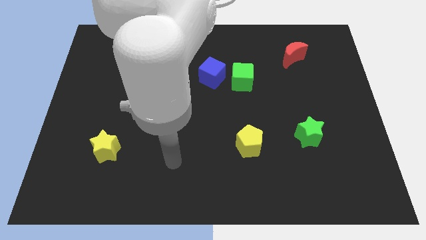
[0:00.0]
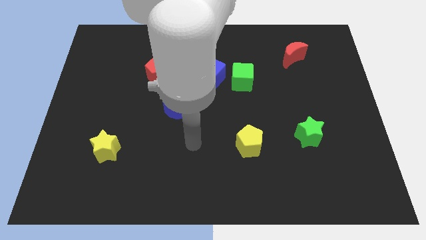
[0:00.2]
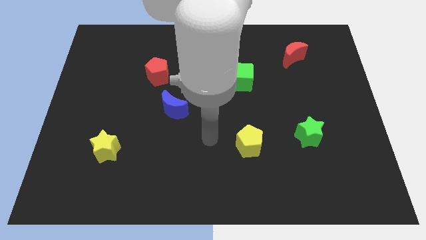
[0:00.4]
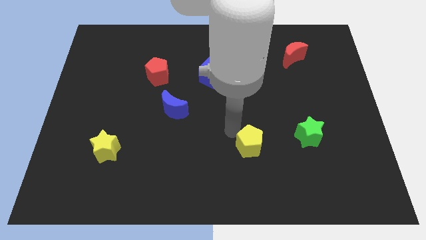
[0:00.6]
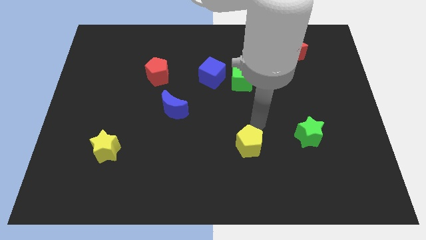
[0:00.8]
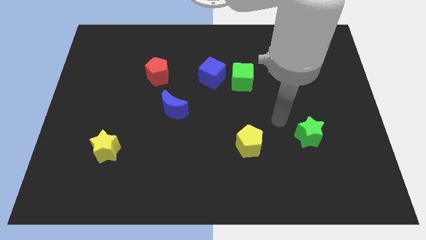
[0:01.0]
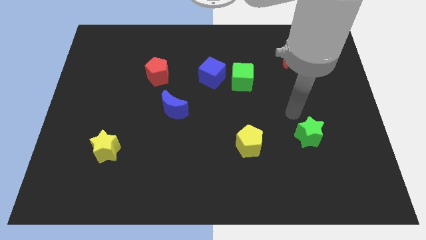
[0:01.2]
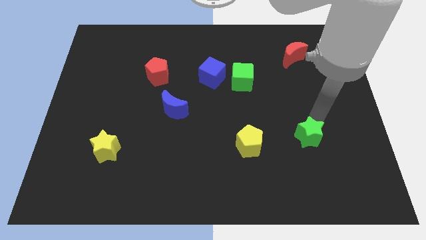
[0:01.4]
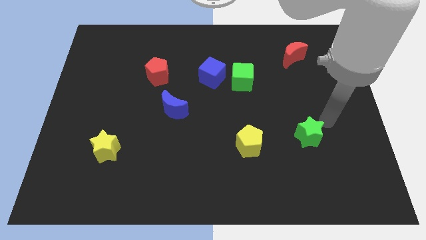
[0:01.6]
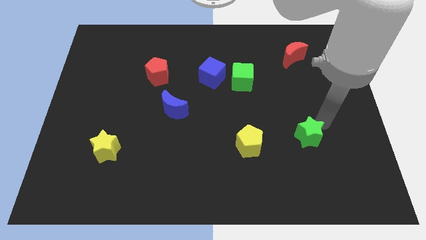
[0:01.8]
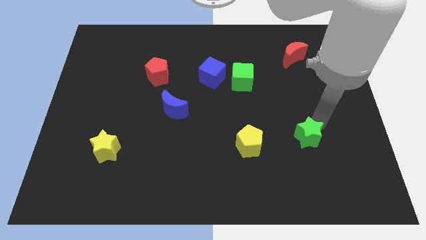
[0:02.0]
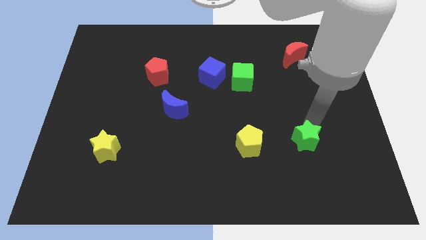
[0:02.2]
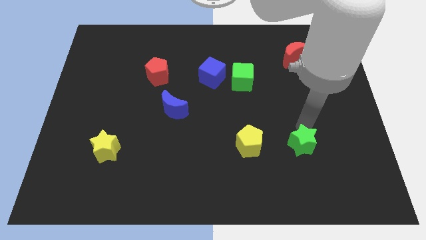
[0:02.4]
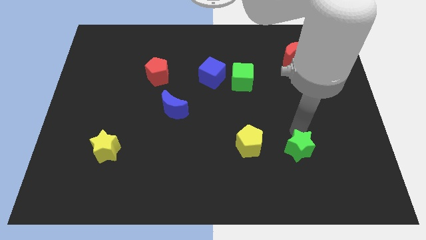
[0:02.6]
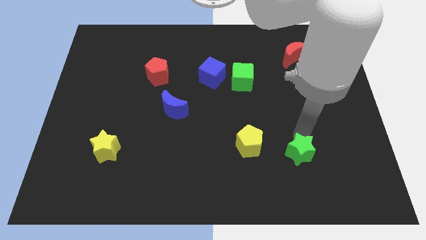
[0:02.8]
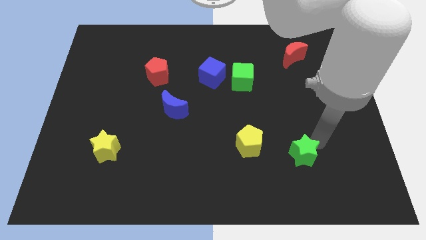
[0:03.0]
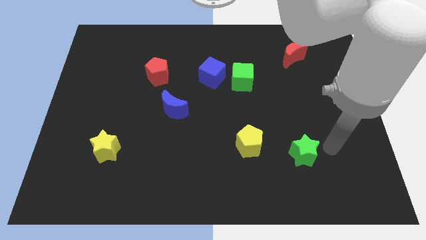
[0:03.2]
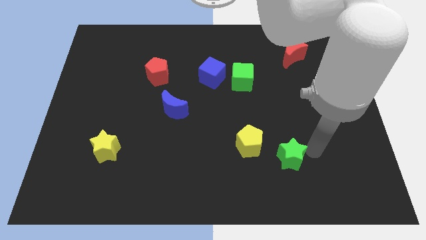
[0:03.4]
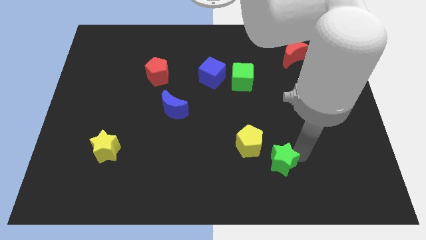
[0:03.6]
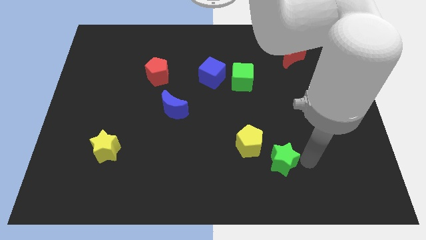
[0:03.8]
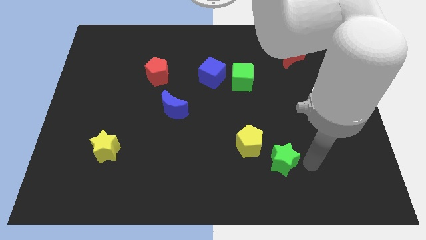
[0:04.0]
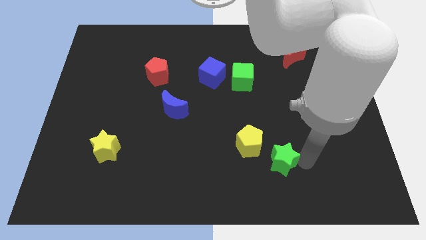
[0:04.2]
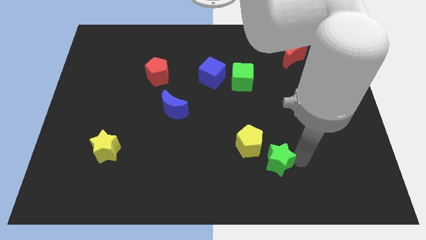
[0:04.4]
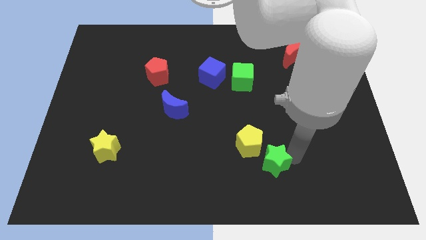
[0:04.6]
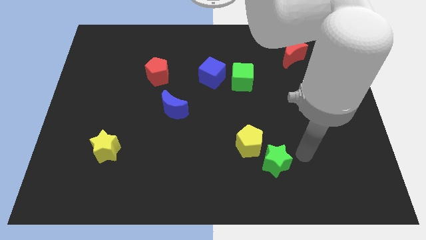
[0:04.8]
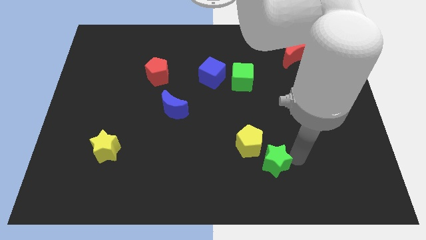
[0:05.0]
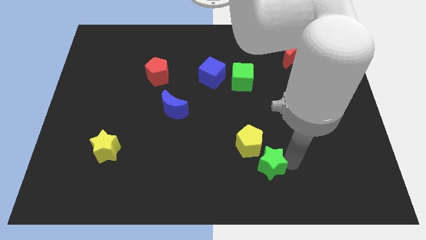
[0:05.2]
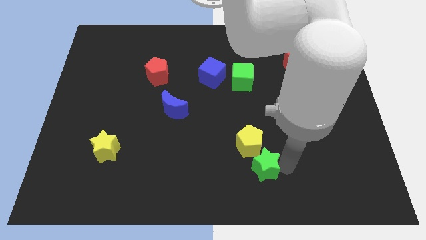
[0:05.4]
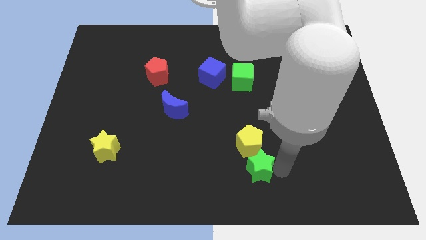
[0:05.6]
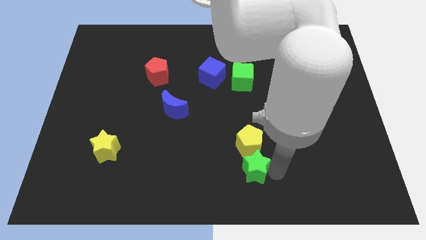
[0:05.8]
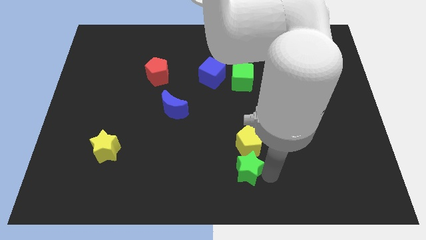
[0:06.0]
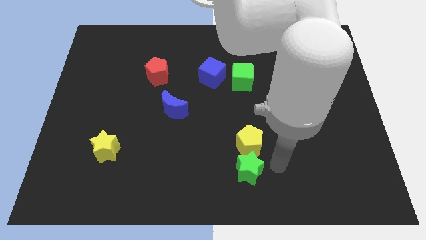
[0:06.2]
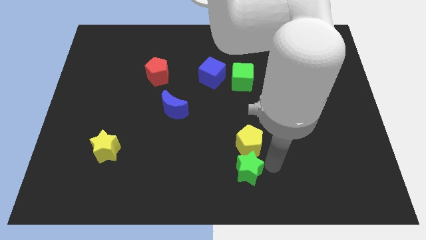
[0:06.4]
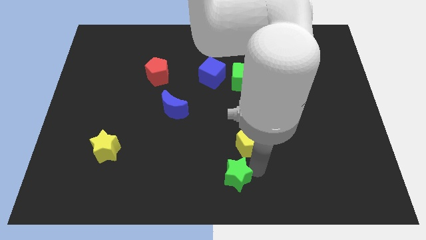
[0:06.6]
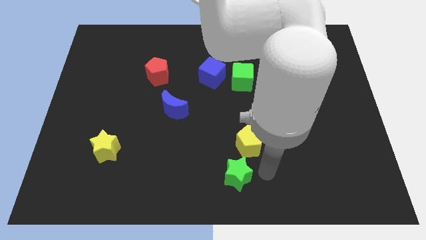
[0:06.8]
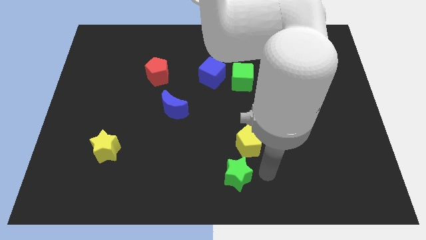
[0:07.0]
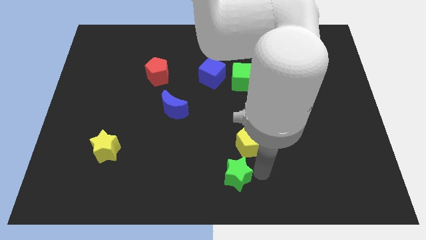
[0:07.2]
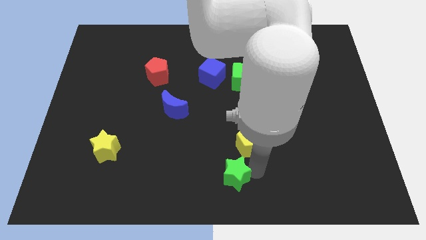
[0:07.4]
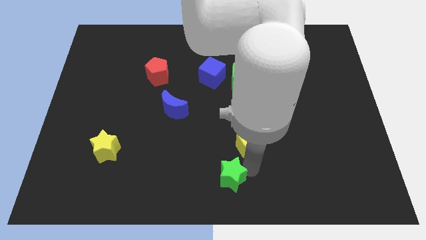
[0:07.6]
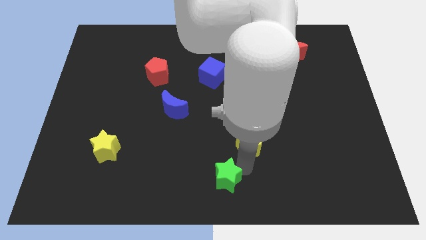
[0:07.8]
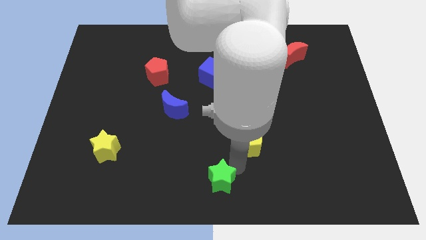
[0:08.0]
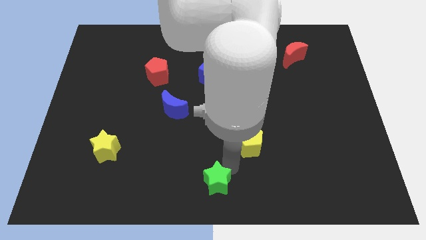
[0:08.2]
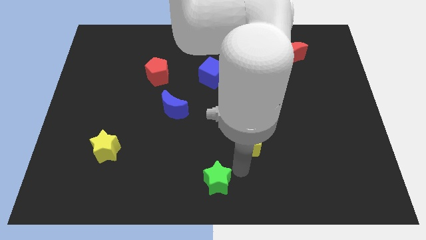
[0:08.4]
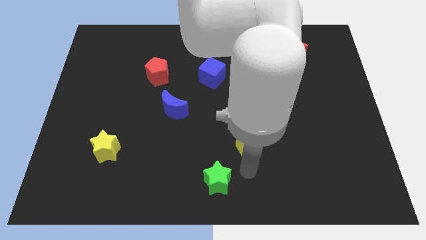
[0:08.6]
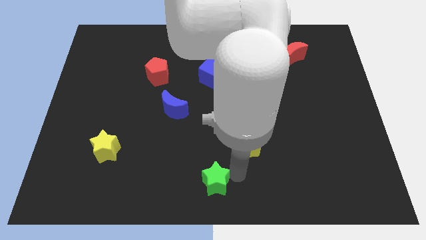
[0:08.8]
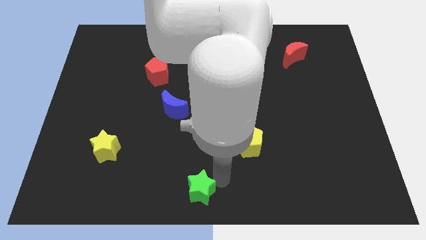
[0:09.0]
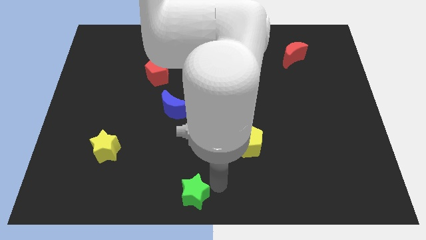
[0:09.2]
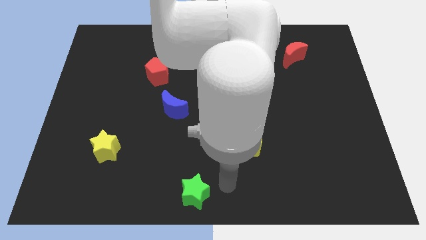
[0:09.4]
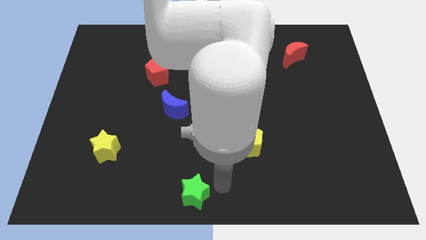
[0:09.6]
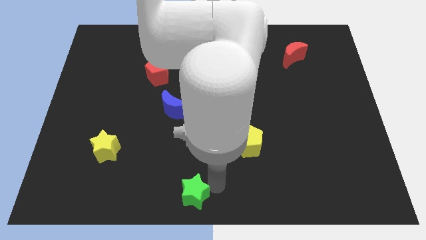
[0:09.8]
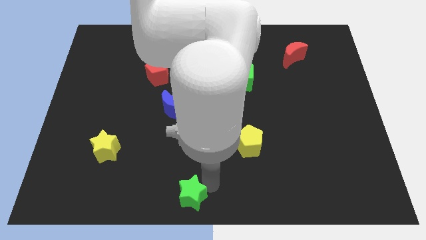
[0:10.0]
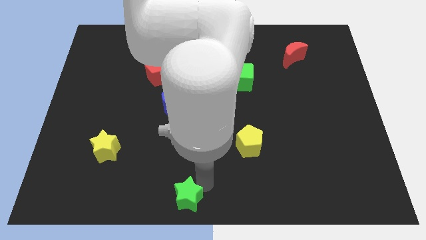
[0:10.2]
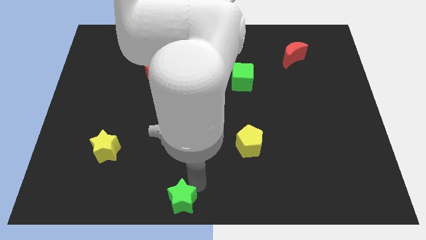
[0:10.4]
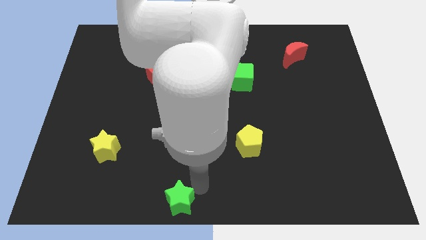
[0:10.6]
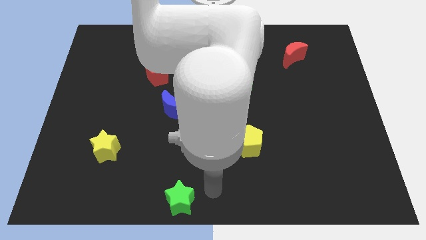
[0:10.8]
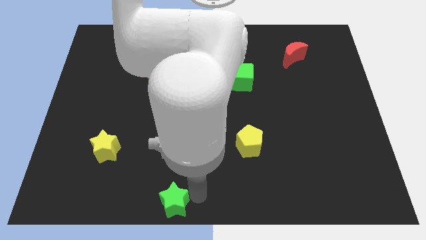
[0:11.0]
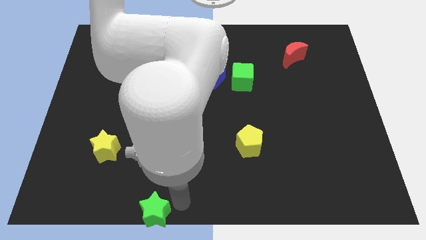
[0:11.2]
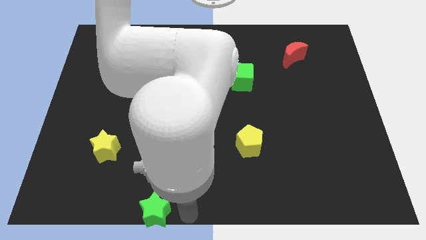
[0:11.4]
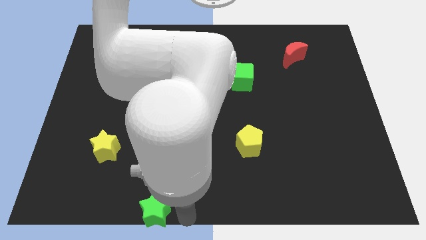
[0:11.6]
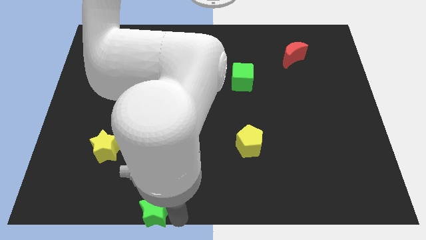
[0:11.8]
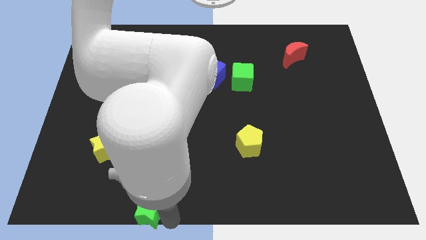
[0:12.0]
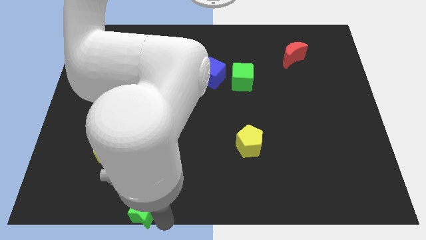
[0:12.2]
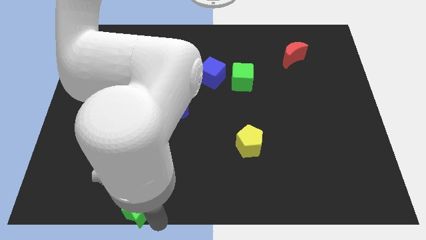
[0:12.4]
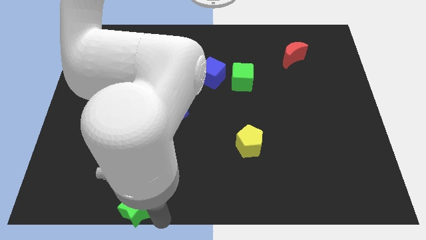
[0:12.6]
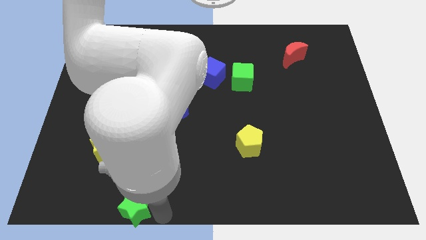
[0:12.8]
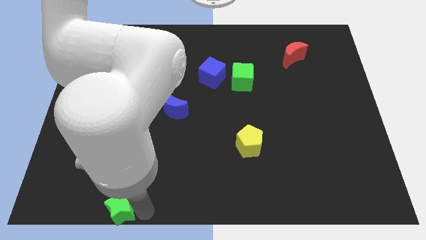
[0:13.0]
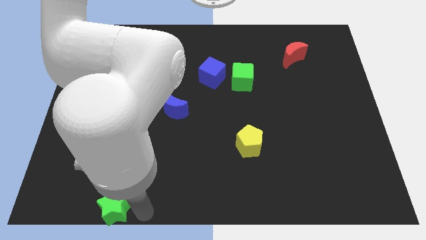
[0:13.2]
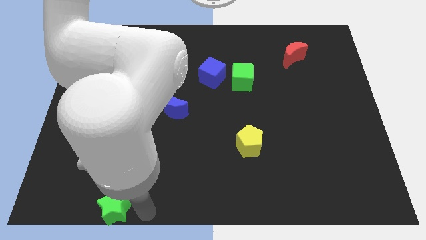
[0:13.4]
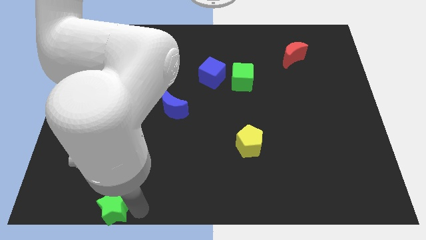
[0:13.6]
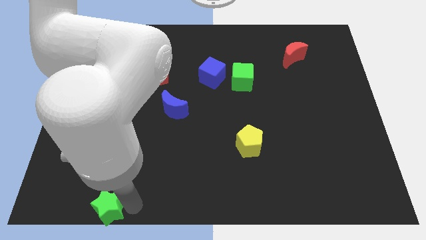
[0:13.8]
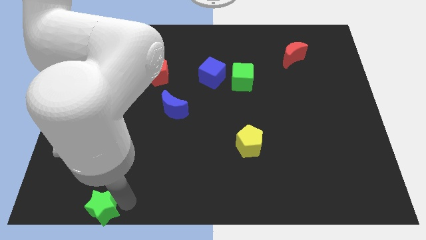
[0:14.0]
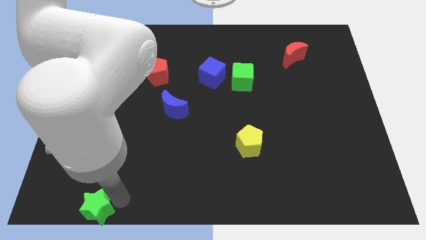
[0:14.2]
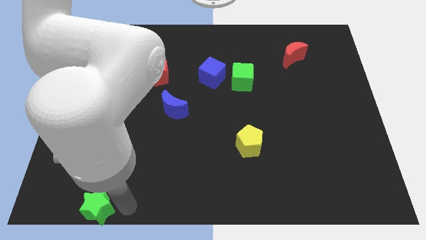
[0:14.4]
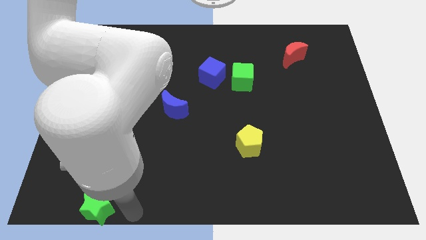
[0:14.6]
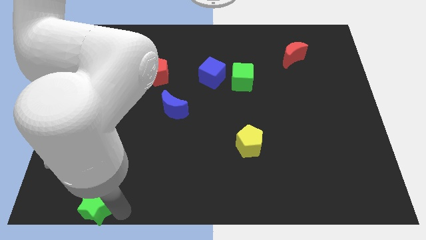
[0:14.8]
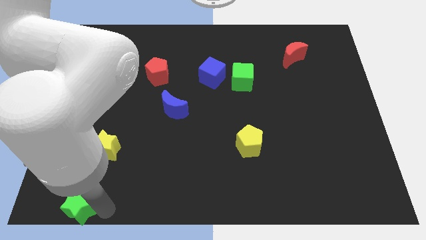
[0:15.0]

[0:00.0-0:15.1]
slide the green star to the bottom left
